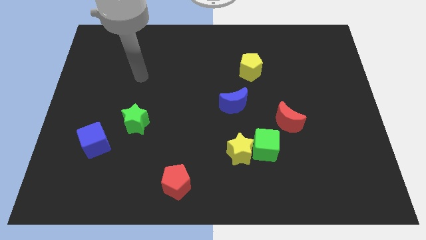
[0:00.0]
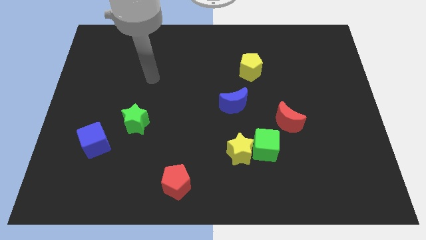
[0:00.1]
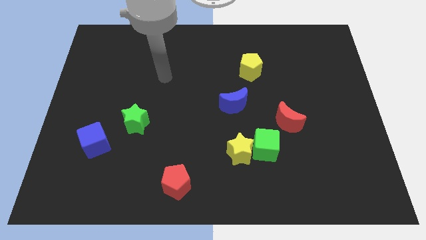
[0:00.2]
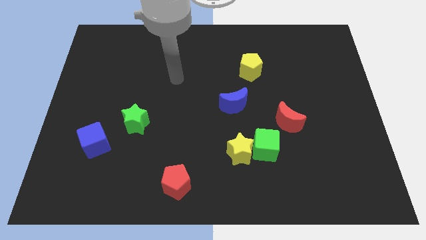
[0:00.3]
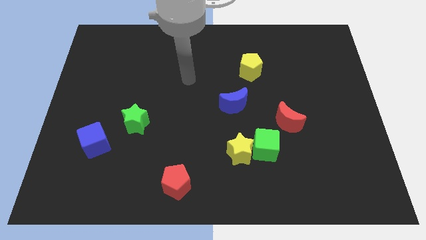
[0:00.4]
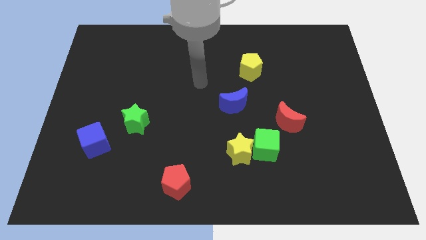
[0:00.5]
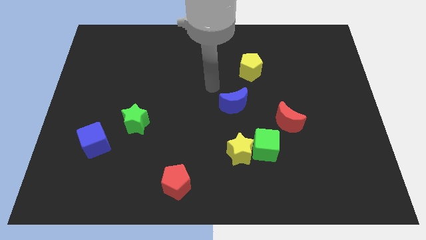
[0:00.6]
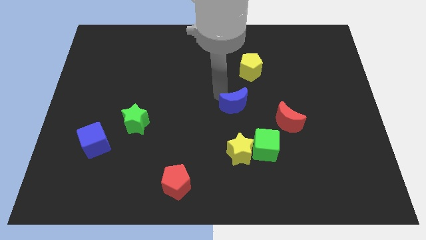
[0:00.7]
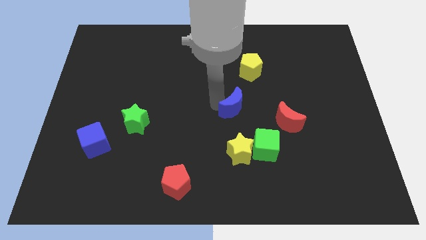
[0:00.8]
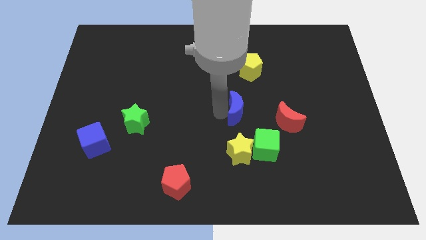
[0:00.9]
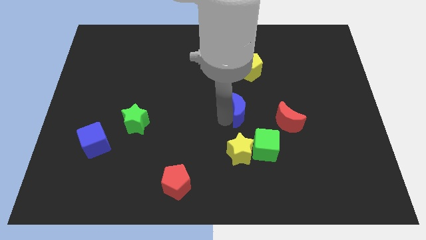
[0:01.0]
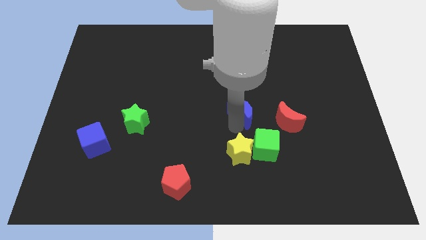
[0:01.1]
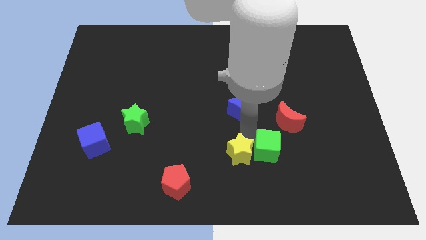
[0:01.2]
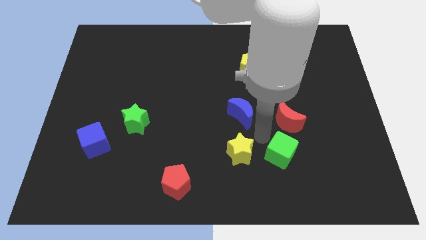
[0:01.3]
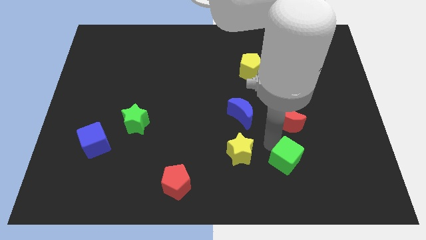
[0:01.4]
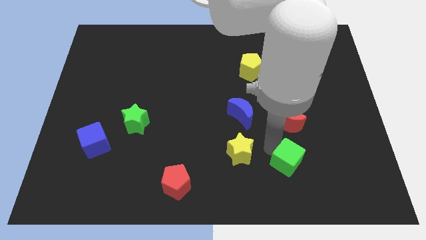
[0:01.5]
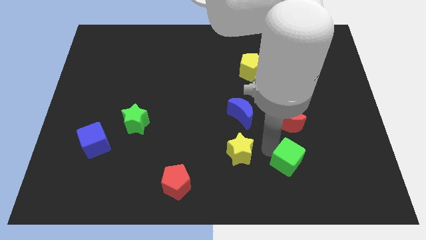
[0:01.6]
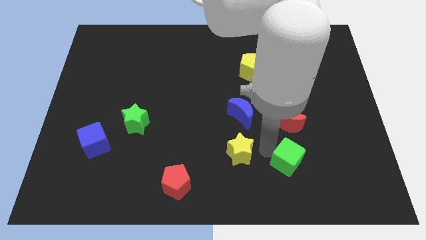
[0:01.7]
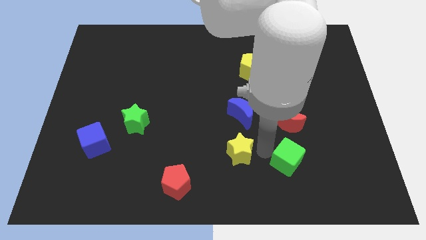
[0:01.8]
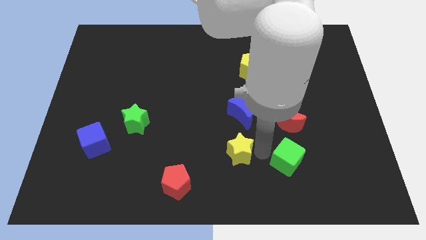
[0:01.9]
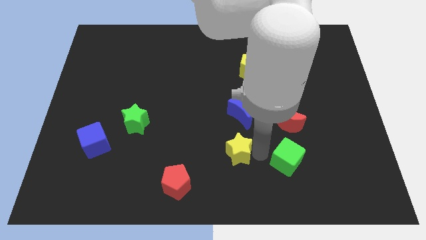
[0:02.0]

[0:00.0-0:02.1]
pull the yellow star apart from the green cube

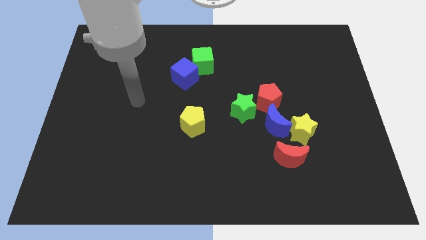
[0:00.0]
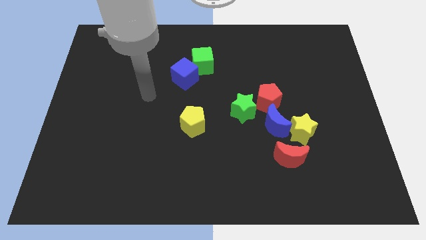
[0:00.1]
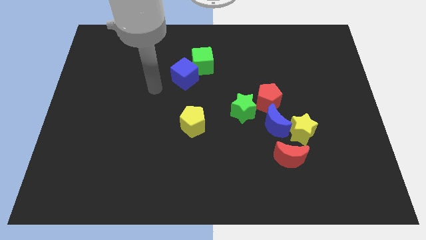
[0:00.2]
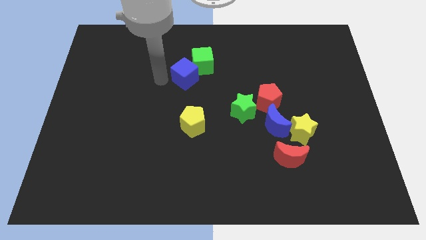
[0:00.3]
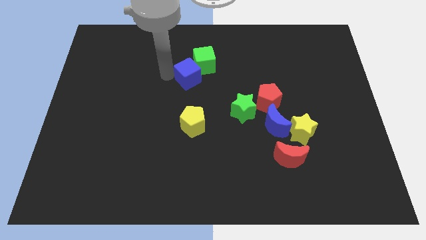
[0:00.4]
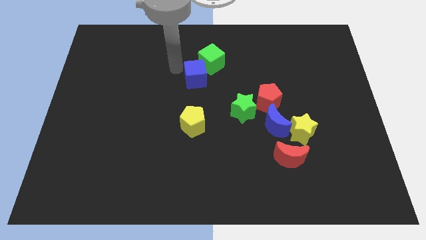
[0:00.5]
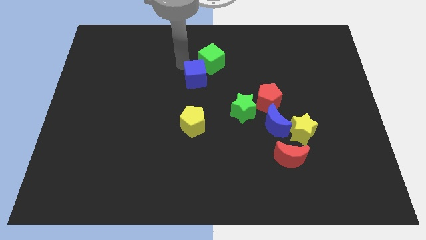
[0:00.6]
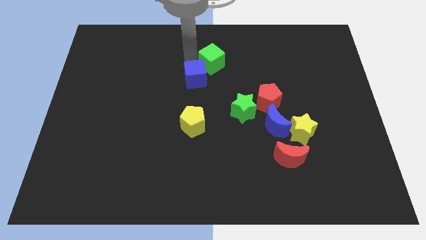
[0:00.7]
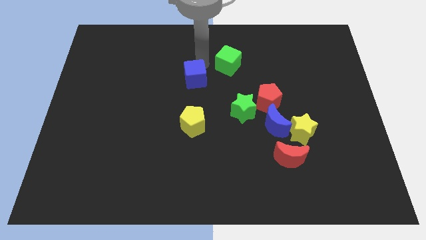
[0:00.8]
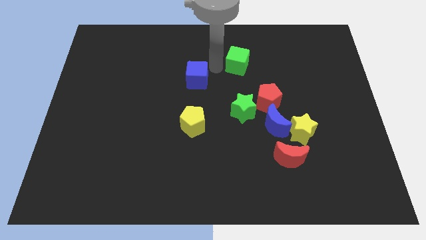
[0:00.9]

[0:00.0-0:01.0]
separate the blue cube from the green cube

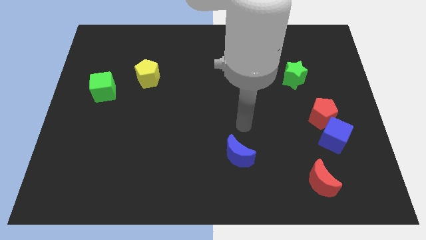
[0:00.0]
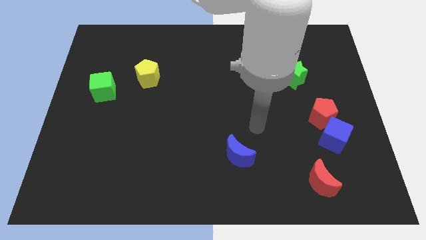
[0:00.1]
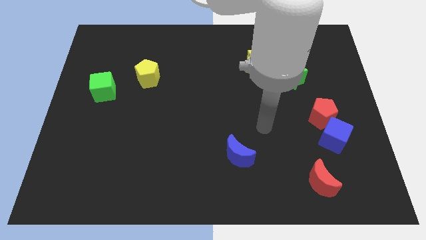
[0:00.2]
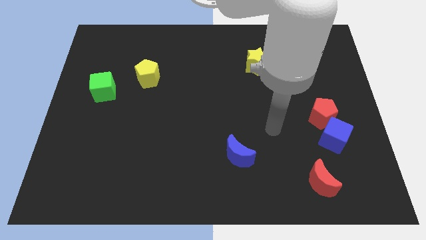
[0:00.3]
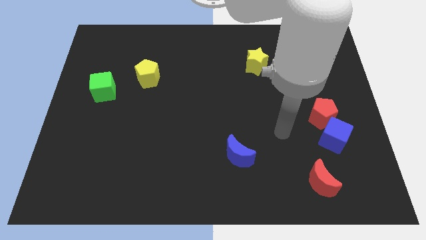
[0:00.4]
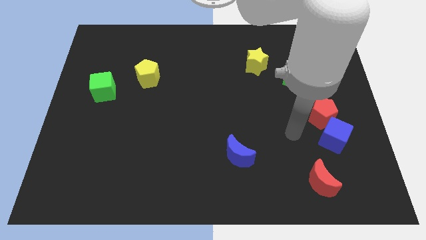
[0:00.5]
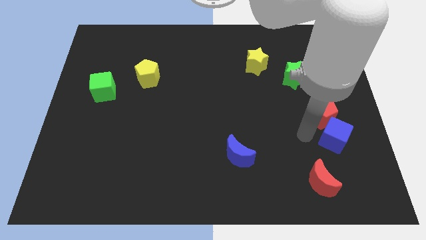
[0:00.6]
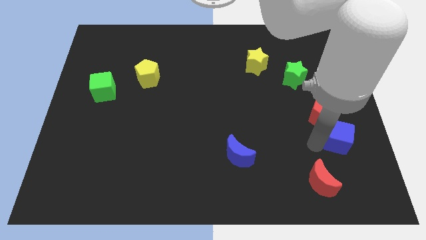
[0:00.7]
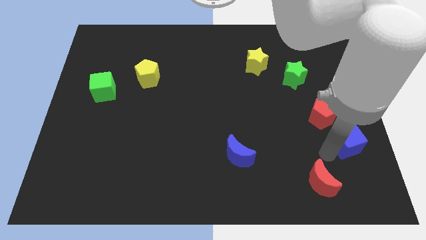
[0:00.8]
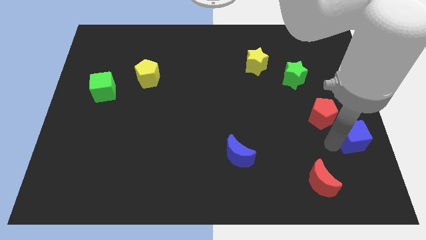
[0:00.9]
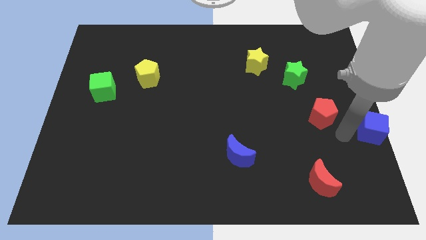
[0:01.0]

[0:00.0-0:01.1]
move the red pentagon away from the blue cube

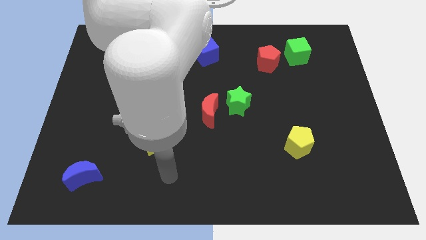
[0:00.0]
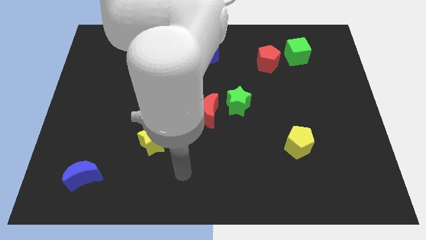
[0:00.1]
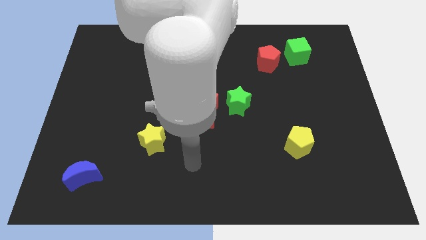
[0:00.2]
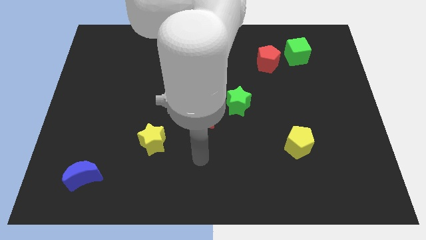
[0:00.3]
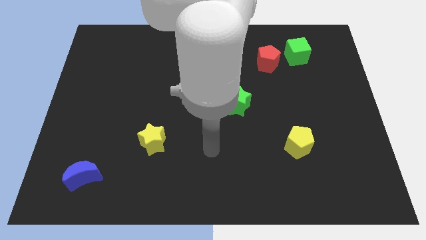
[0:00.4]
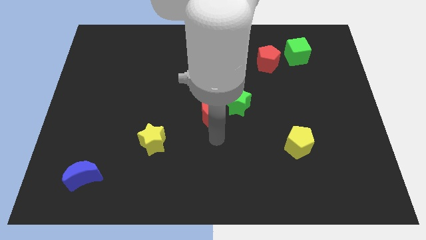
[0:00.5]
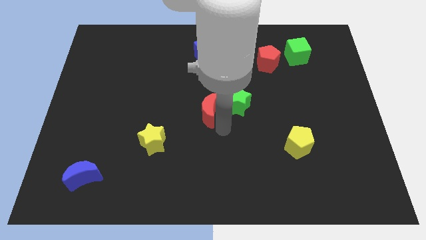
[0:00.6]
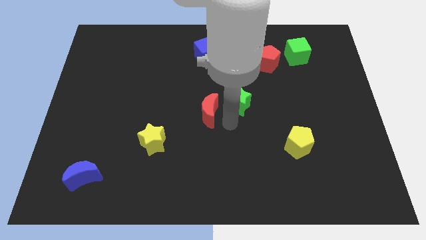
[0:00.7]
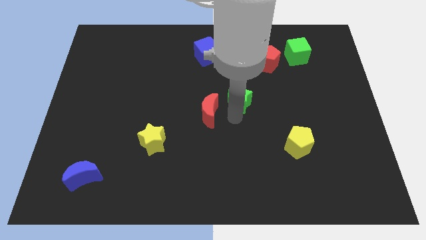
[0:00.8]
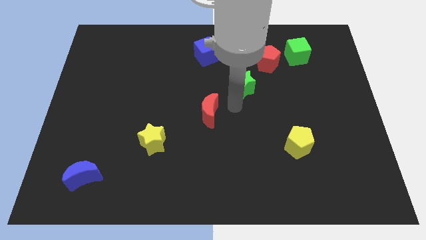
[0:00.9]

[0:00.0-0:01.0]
pull the red moon apart from the green star

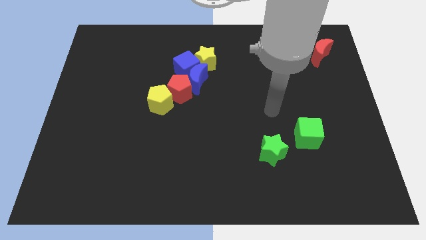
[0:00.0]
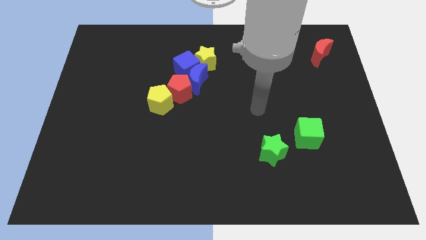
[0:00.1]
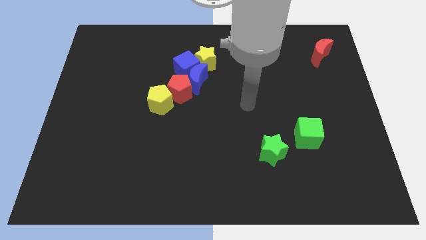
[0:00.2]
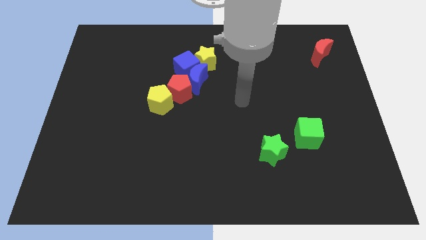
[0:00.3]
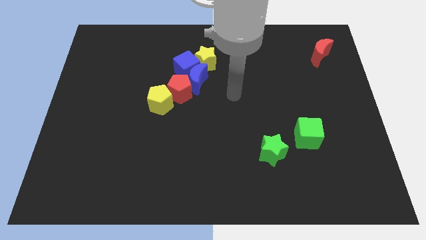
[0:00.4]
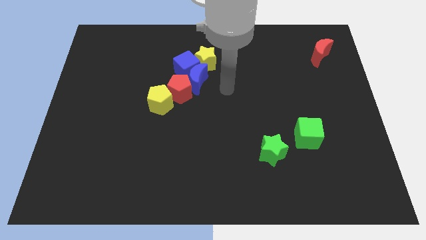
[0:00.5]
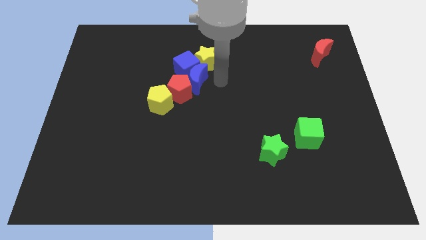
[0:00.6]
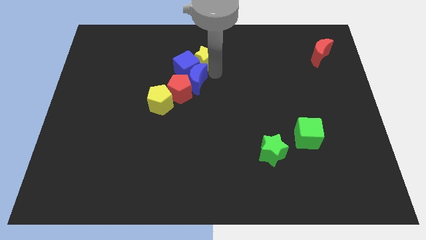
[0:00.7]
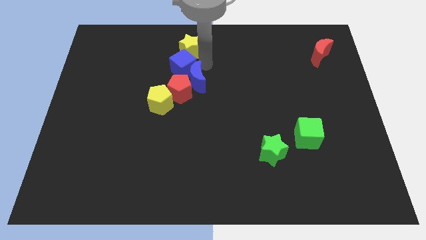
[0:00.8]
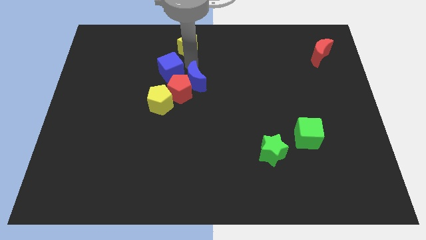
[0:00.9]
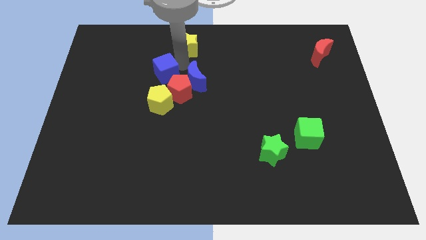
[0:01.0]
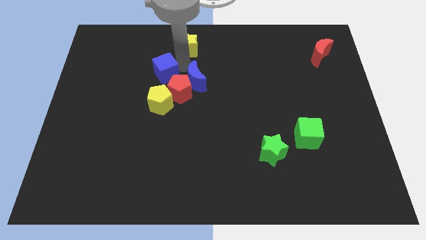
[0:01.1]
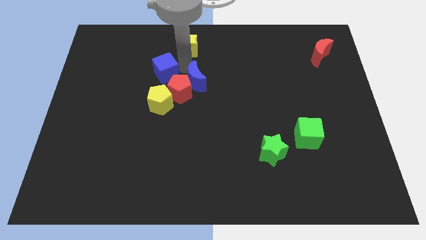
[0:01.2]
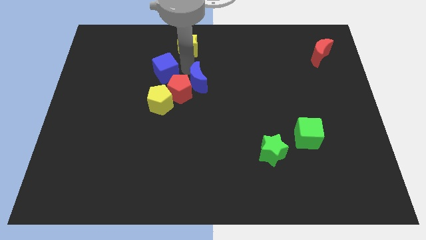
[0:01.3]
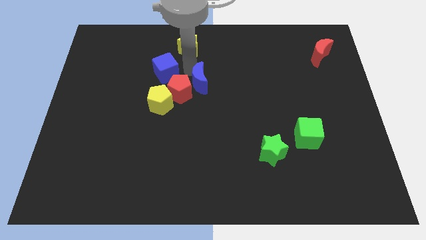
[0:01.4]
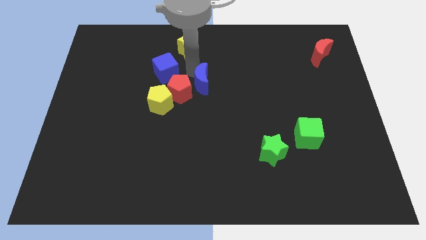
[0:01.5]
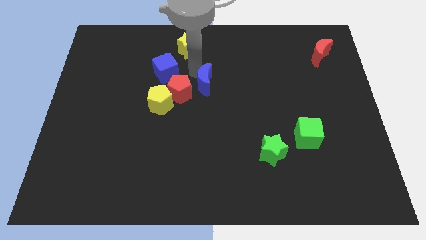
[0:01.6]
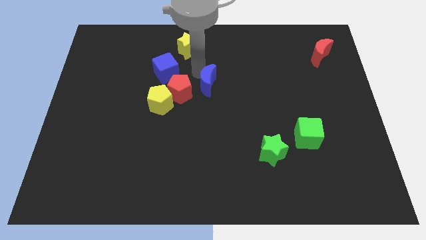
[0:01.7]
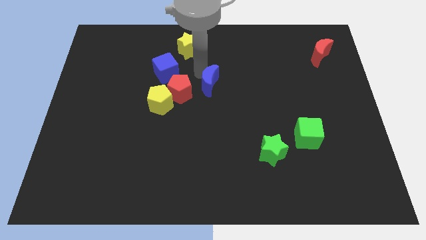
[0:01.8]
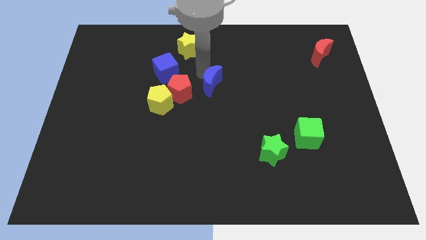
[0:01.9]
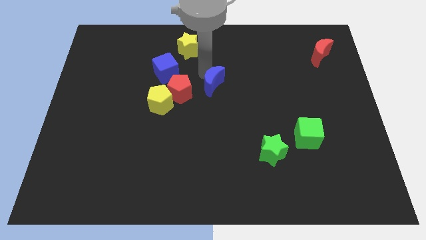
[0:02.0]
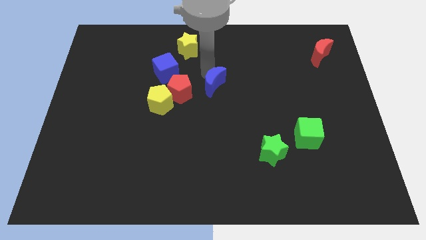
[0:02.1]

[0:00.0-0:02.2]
separate the blue moon from the clump

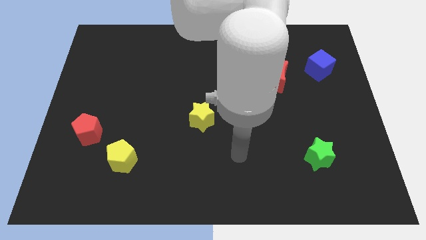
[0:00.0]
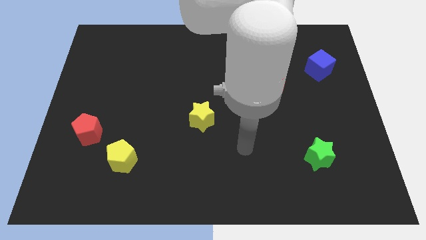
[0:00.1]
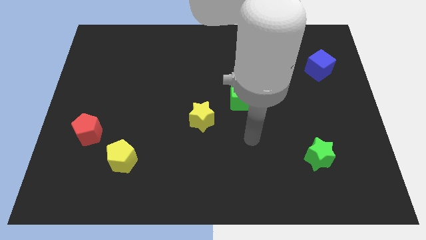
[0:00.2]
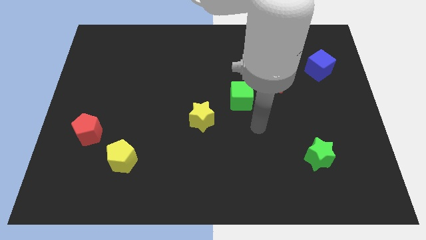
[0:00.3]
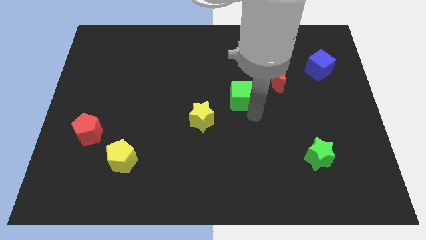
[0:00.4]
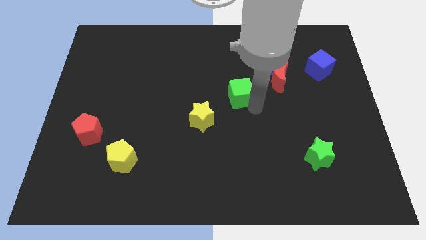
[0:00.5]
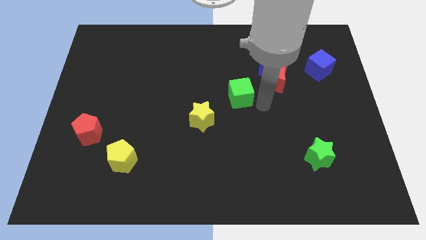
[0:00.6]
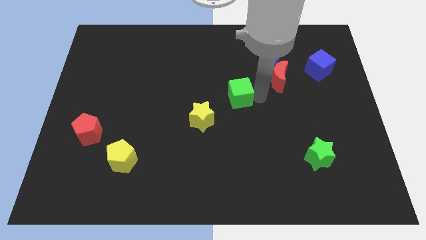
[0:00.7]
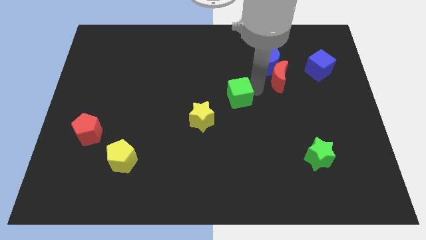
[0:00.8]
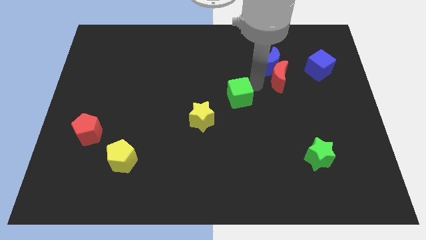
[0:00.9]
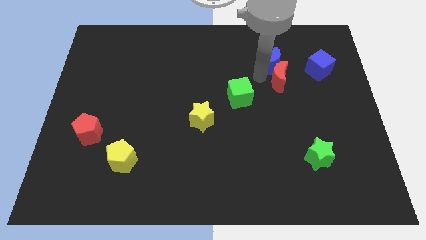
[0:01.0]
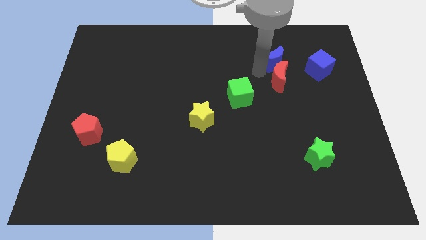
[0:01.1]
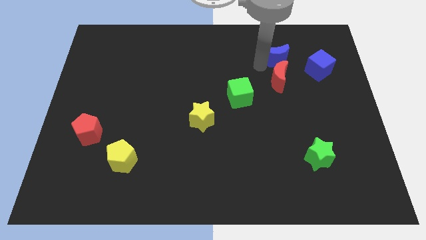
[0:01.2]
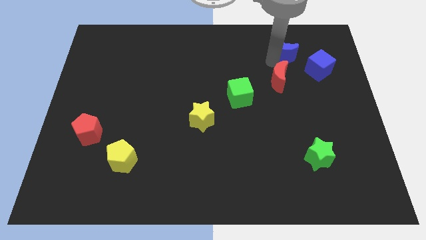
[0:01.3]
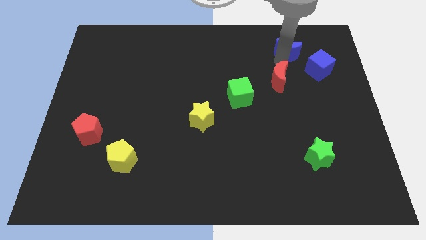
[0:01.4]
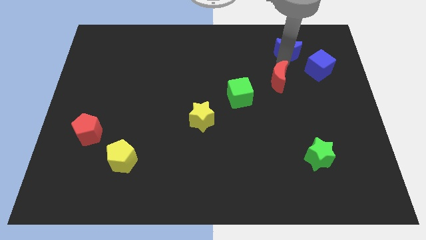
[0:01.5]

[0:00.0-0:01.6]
separate the red moon from the blue moon

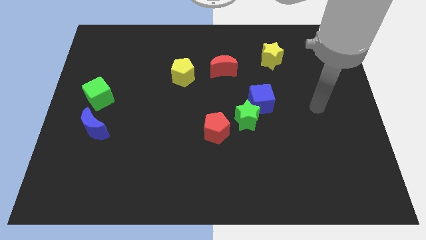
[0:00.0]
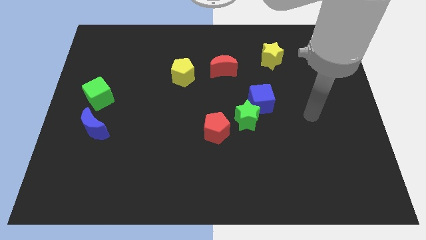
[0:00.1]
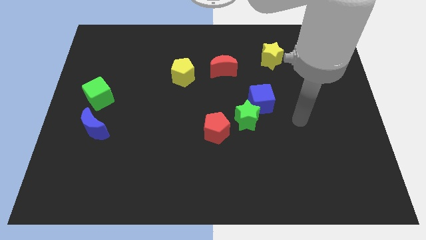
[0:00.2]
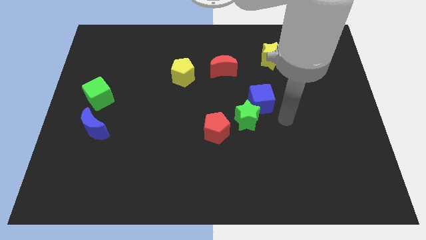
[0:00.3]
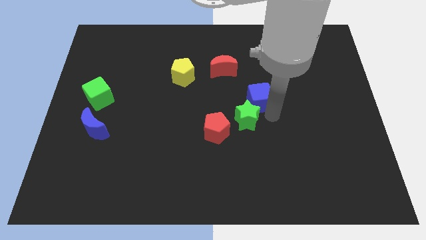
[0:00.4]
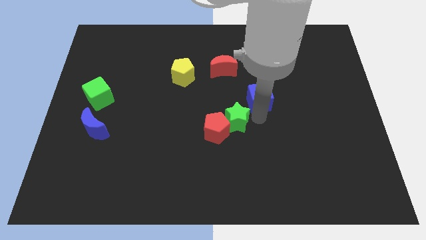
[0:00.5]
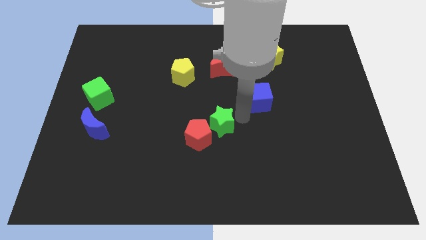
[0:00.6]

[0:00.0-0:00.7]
move the blue cube away from the green star
